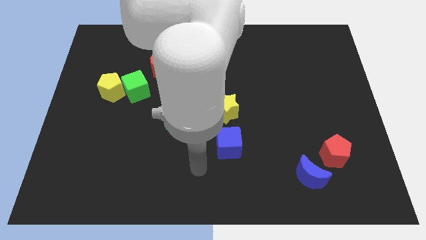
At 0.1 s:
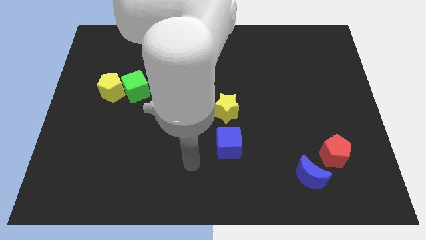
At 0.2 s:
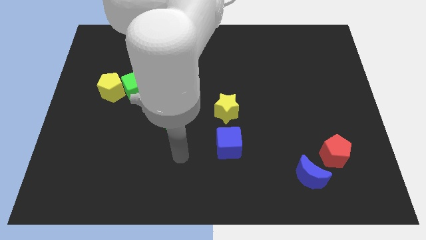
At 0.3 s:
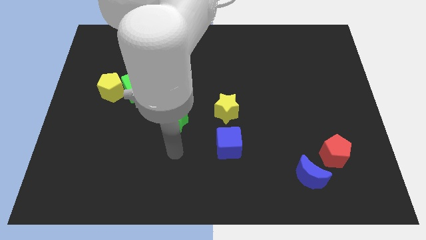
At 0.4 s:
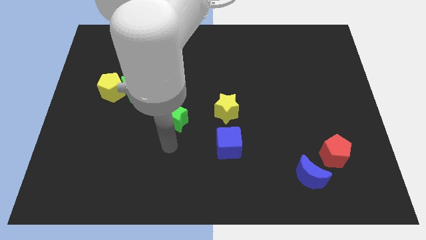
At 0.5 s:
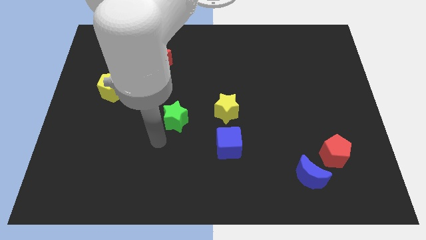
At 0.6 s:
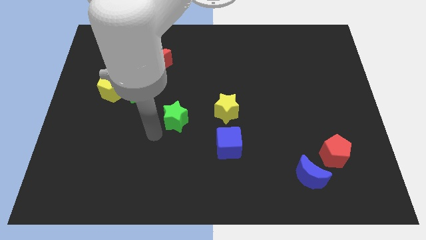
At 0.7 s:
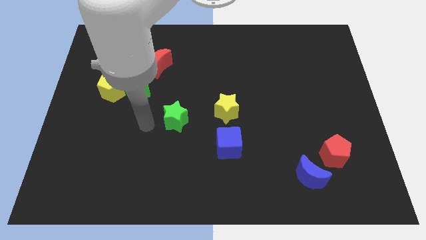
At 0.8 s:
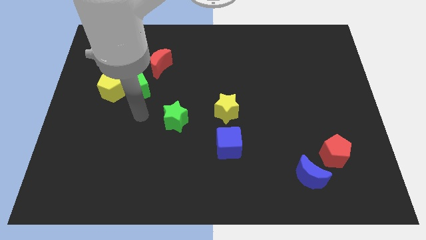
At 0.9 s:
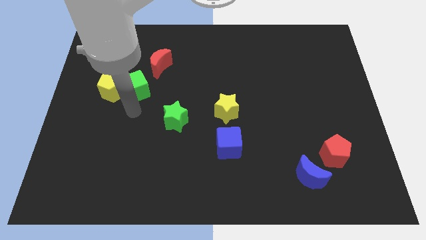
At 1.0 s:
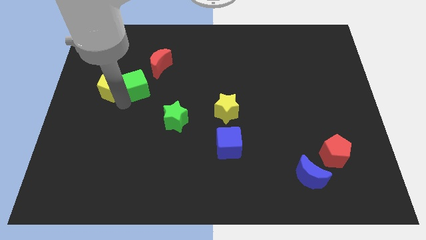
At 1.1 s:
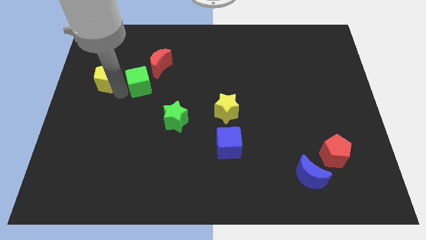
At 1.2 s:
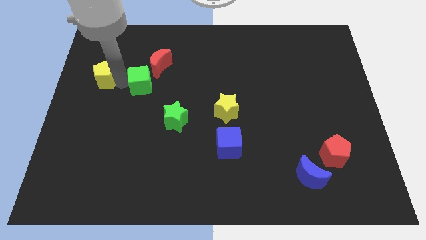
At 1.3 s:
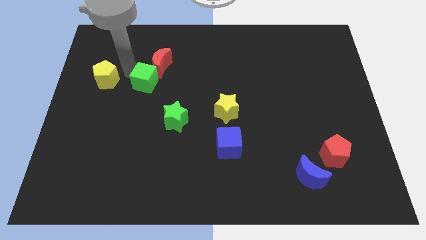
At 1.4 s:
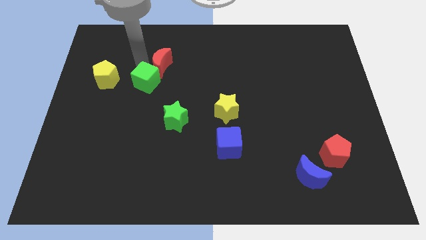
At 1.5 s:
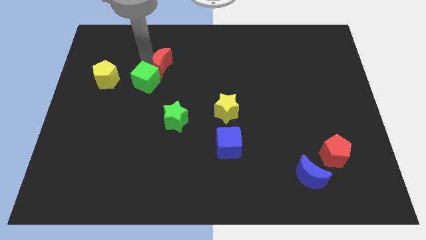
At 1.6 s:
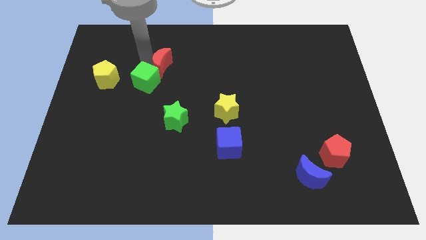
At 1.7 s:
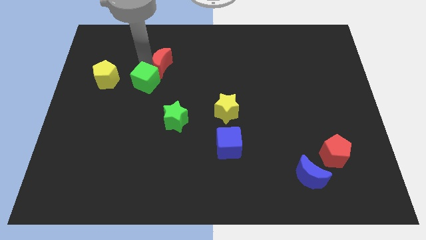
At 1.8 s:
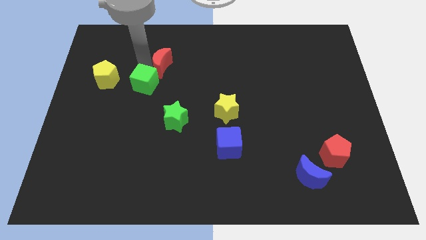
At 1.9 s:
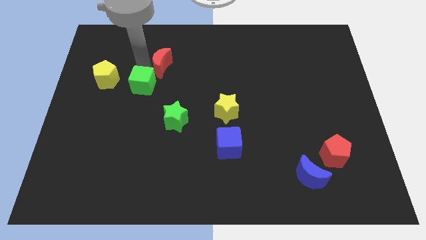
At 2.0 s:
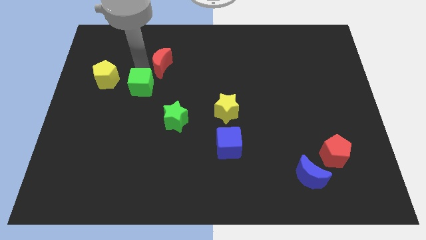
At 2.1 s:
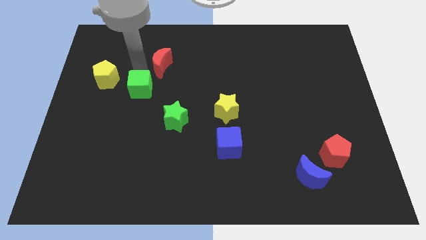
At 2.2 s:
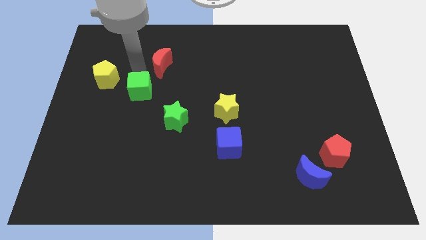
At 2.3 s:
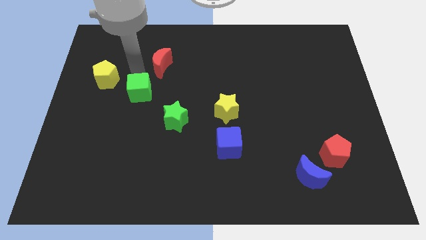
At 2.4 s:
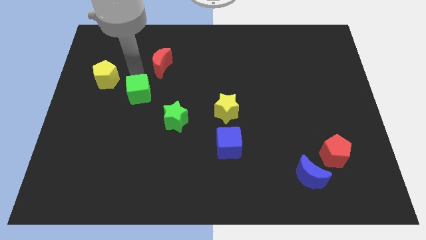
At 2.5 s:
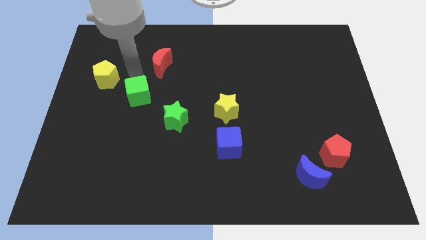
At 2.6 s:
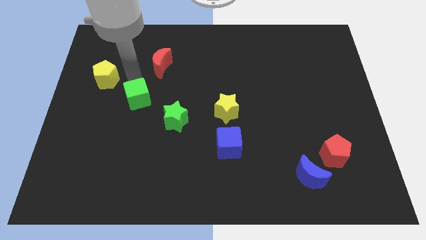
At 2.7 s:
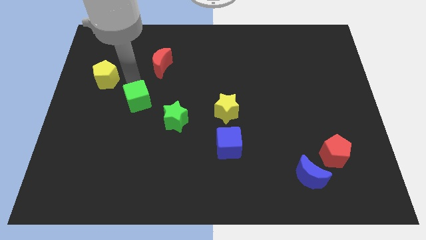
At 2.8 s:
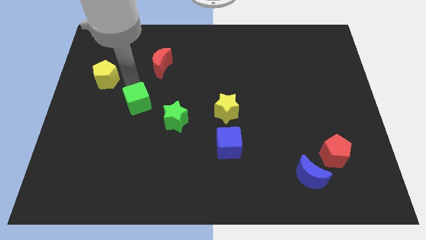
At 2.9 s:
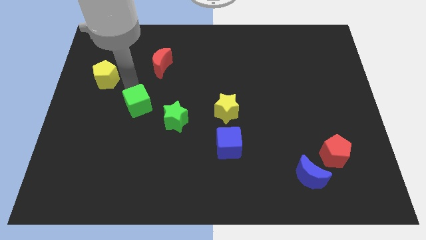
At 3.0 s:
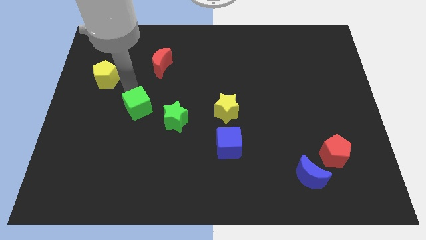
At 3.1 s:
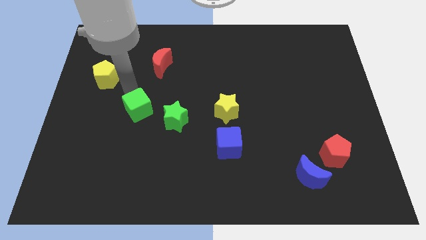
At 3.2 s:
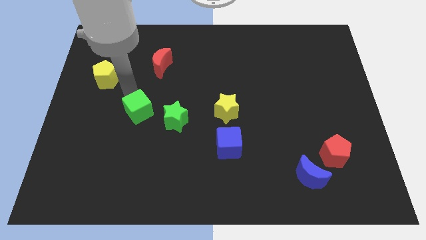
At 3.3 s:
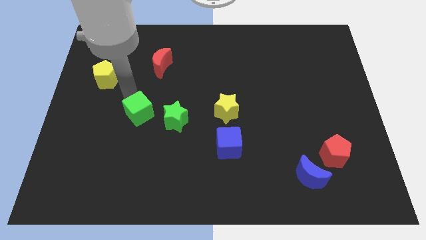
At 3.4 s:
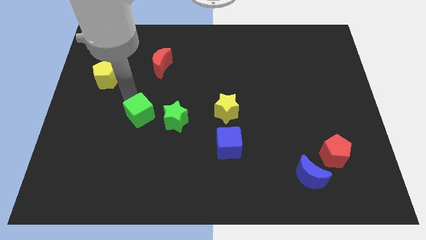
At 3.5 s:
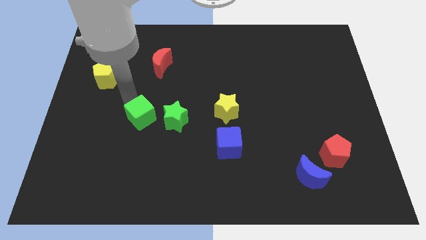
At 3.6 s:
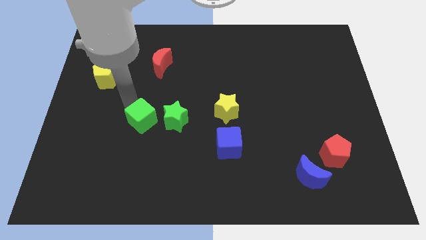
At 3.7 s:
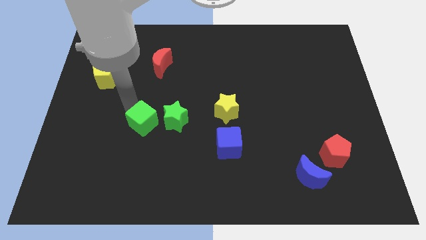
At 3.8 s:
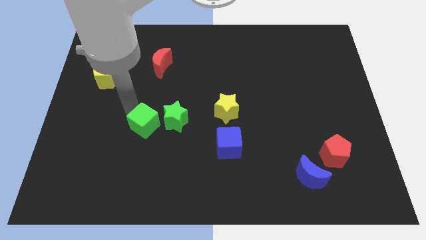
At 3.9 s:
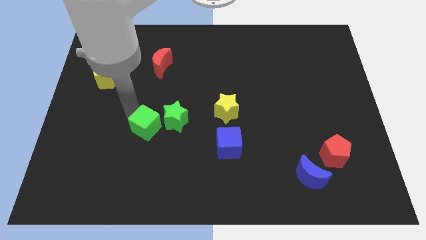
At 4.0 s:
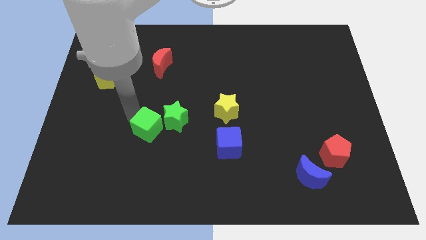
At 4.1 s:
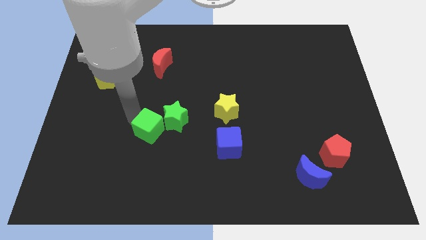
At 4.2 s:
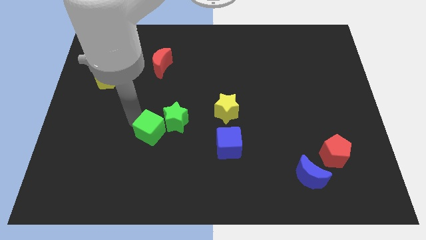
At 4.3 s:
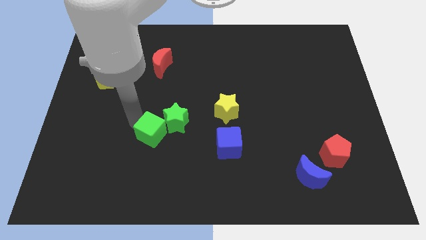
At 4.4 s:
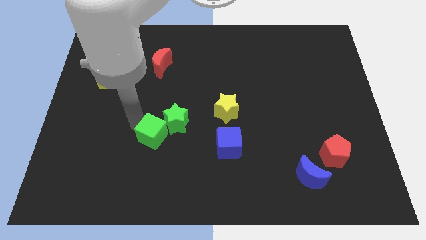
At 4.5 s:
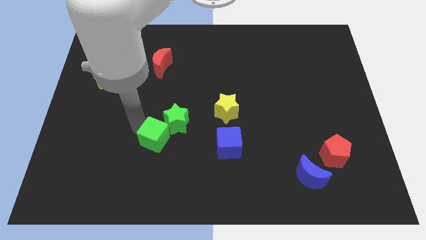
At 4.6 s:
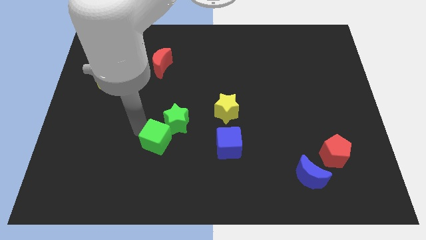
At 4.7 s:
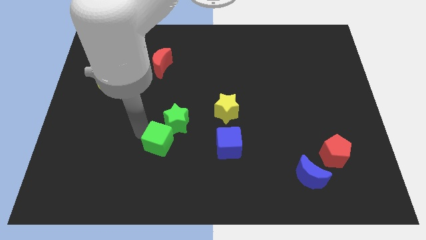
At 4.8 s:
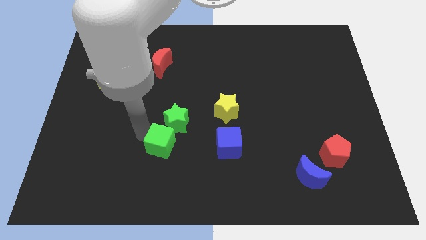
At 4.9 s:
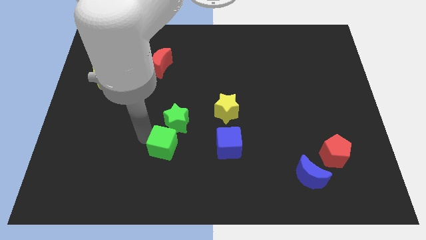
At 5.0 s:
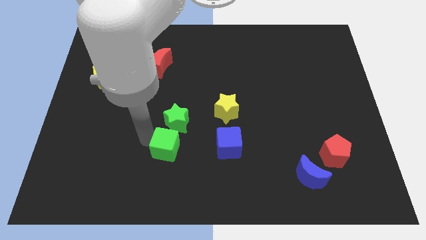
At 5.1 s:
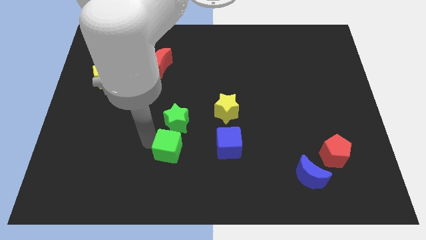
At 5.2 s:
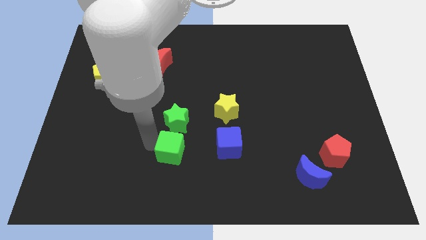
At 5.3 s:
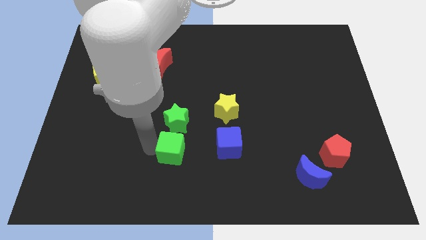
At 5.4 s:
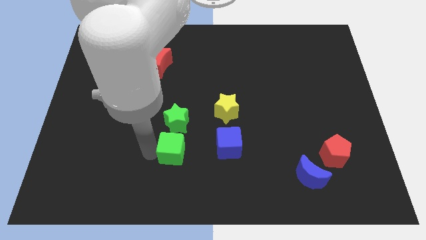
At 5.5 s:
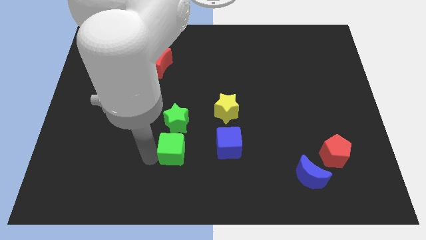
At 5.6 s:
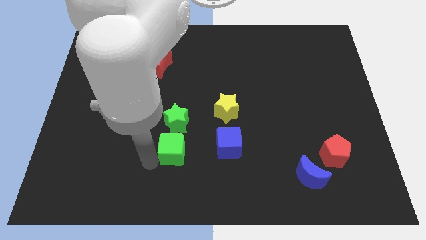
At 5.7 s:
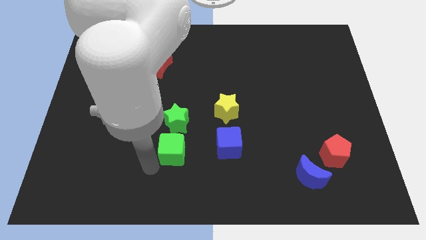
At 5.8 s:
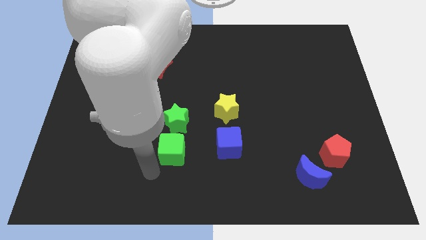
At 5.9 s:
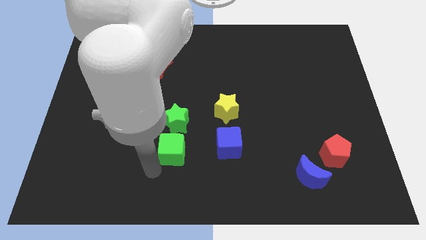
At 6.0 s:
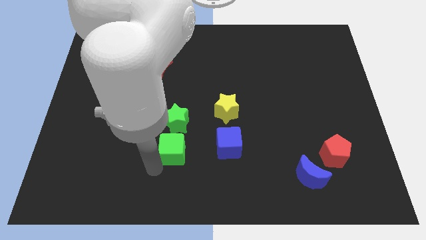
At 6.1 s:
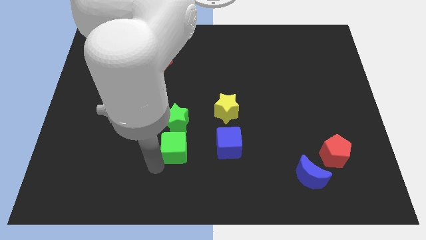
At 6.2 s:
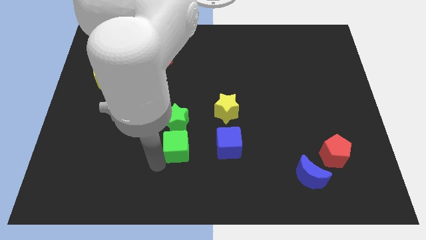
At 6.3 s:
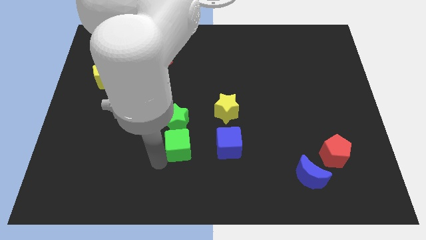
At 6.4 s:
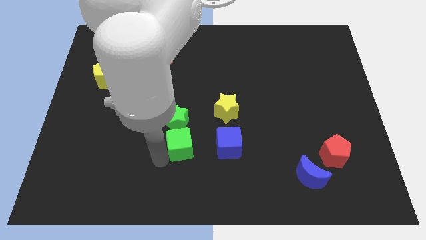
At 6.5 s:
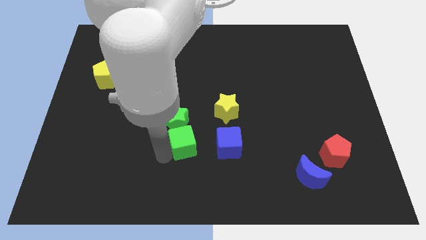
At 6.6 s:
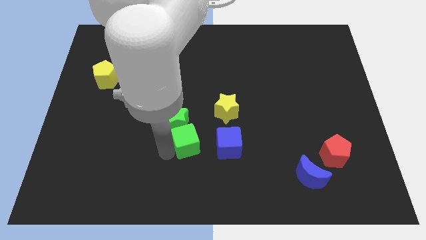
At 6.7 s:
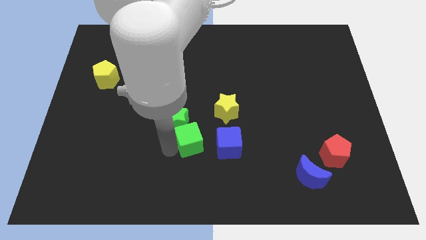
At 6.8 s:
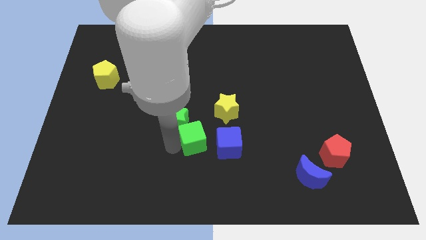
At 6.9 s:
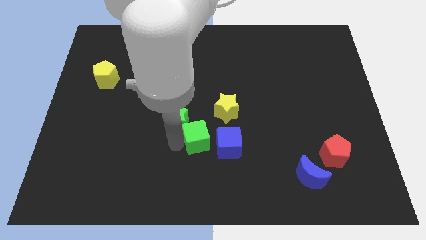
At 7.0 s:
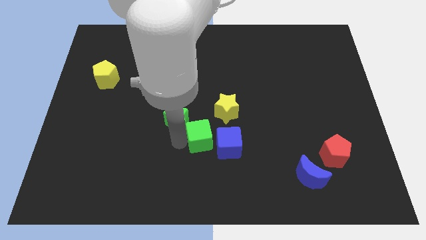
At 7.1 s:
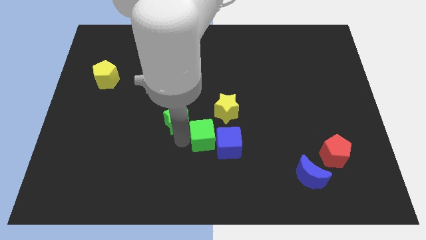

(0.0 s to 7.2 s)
push the green cube next to the blue cube

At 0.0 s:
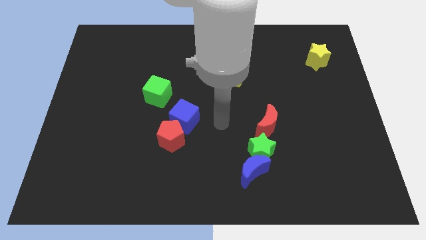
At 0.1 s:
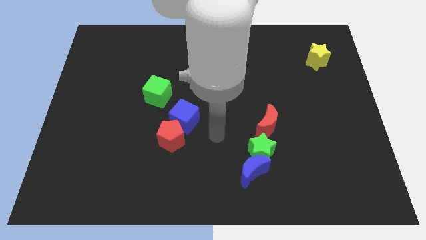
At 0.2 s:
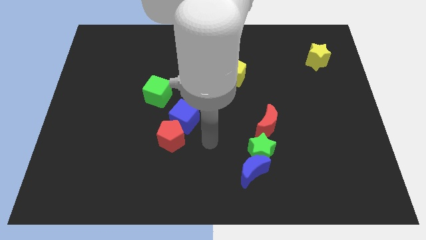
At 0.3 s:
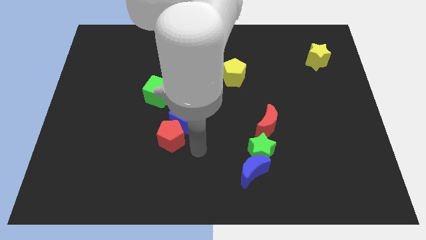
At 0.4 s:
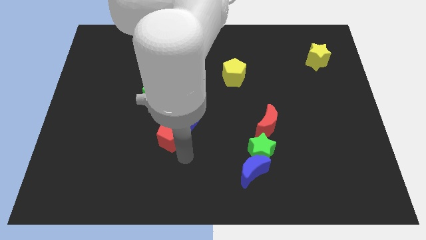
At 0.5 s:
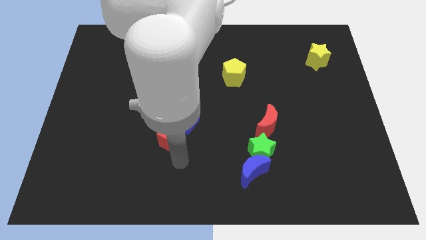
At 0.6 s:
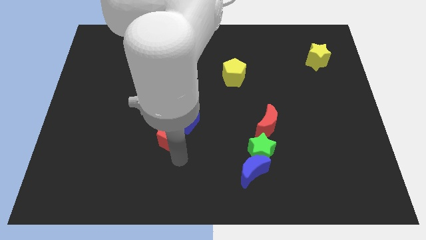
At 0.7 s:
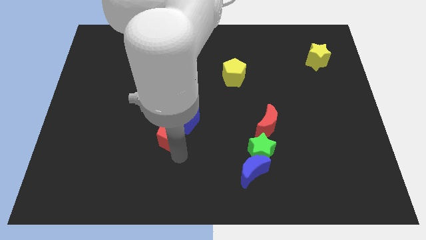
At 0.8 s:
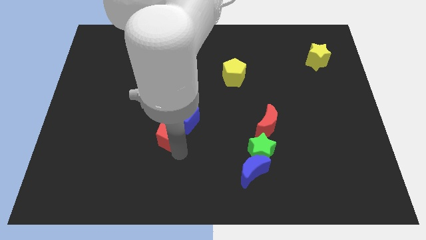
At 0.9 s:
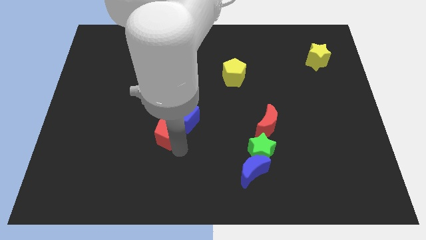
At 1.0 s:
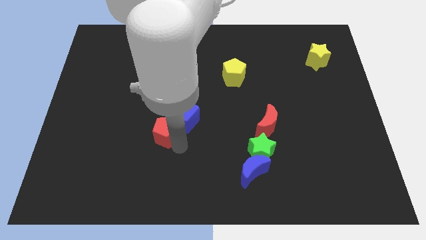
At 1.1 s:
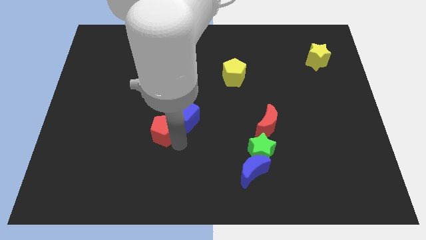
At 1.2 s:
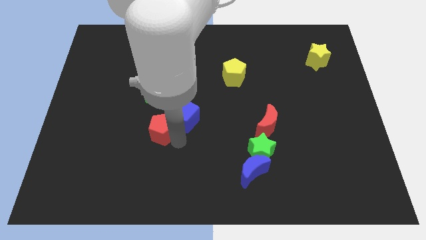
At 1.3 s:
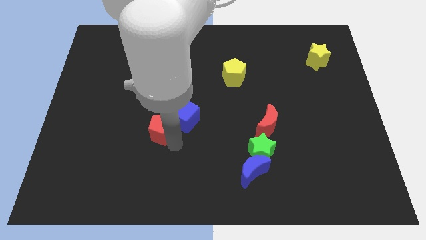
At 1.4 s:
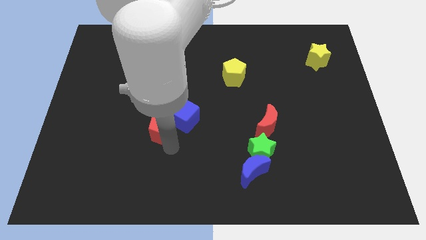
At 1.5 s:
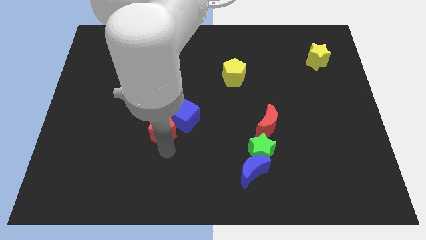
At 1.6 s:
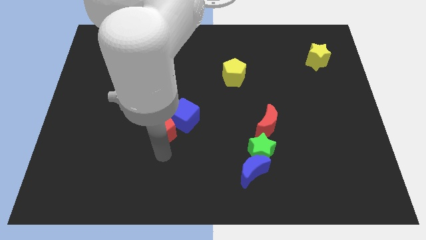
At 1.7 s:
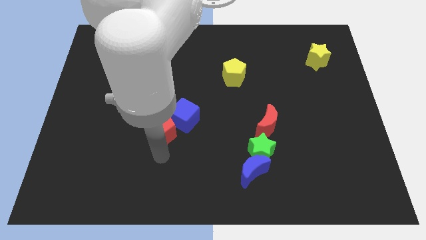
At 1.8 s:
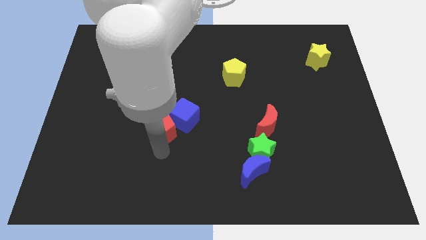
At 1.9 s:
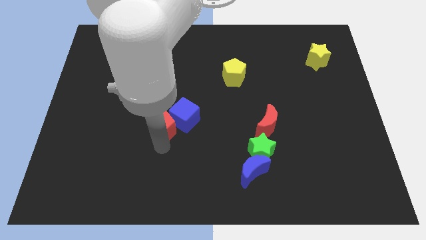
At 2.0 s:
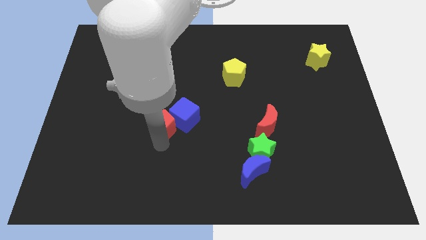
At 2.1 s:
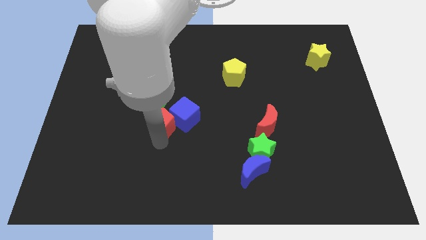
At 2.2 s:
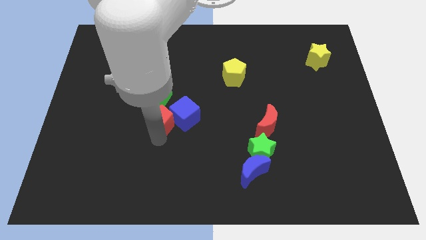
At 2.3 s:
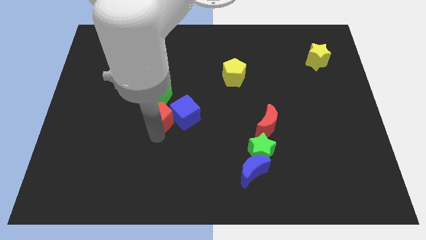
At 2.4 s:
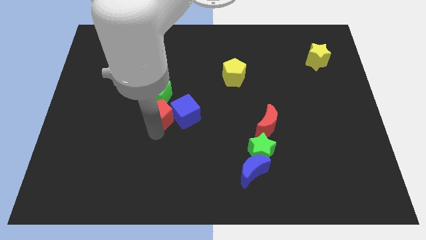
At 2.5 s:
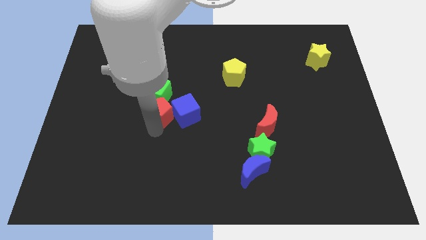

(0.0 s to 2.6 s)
slide the red pentagon next to the green cube
